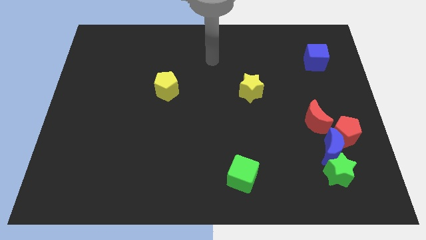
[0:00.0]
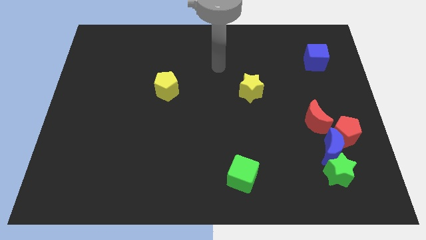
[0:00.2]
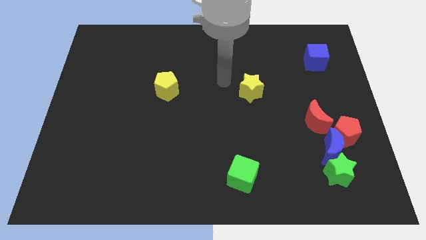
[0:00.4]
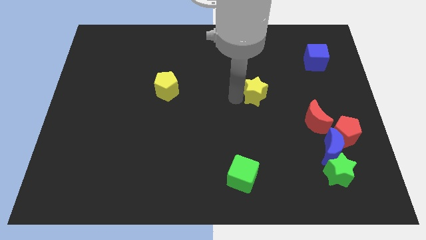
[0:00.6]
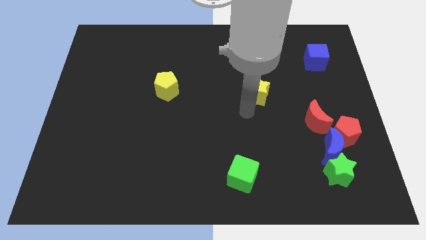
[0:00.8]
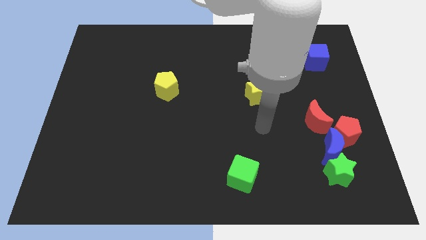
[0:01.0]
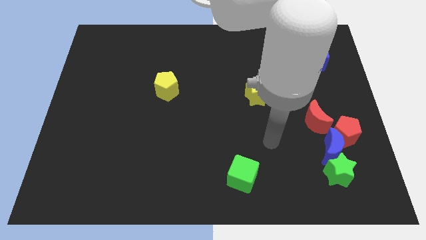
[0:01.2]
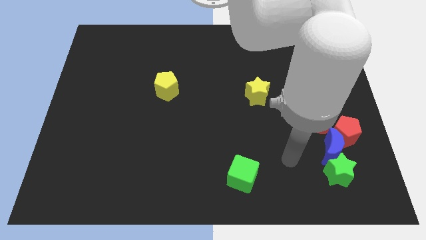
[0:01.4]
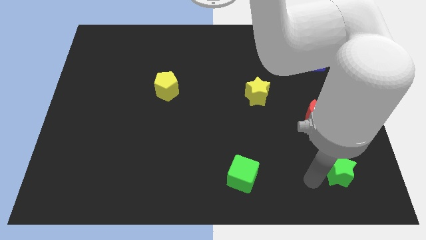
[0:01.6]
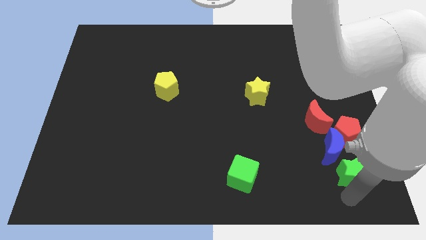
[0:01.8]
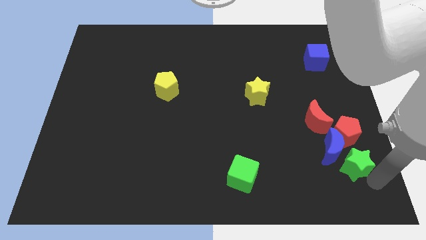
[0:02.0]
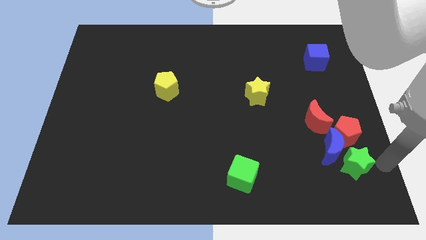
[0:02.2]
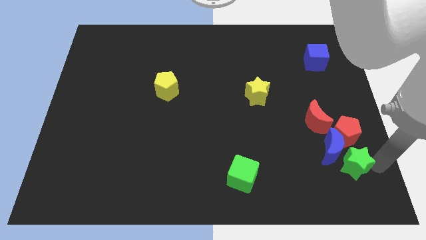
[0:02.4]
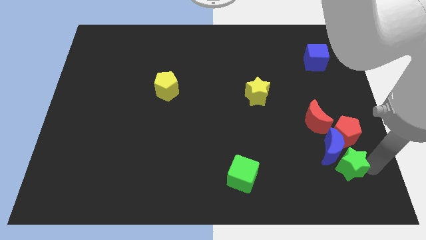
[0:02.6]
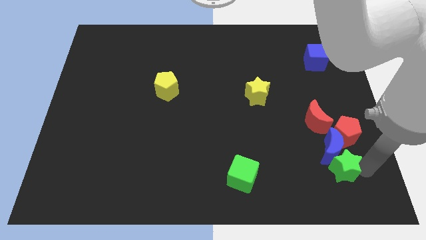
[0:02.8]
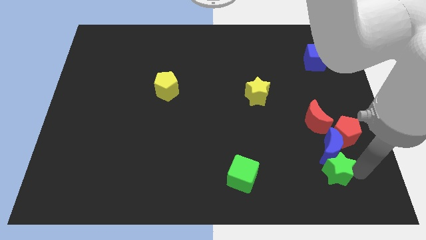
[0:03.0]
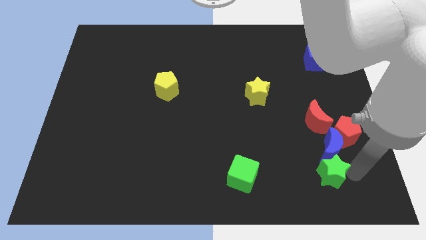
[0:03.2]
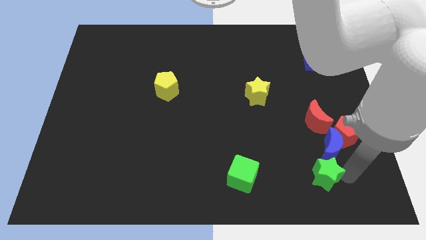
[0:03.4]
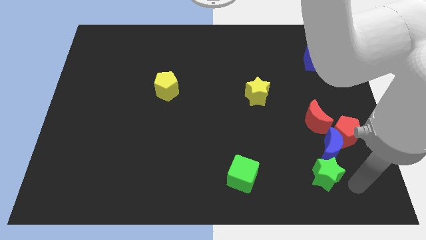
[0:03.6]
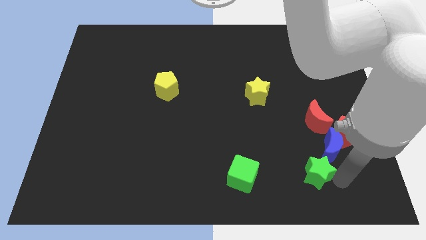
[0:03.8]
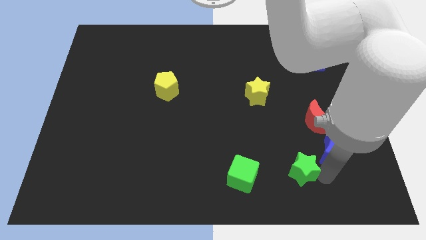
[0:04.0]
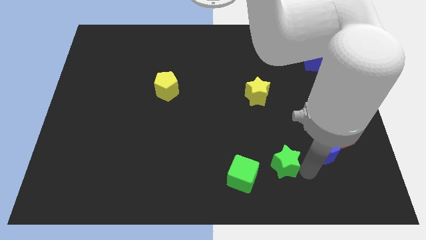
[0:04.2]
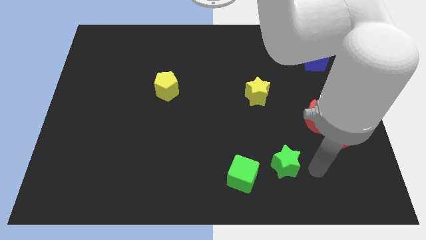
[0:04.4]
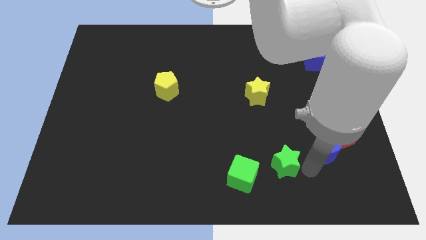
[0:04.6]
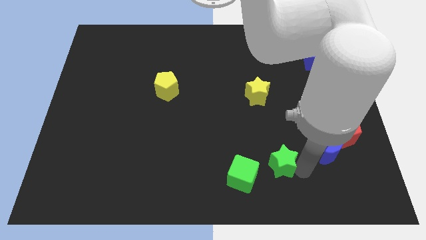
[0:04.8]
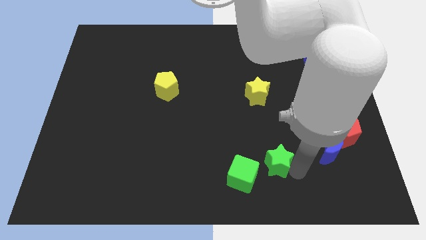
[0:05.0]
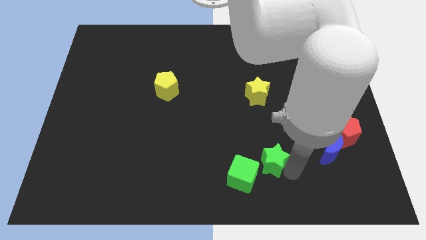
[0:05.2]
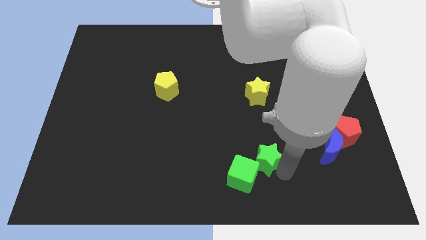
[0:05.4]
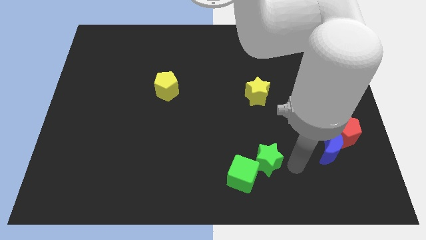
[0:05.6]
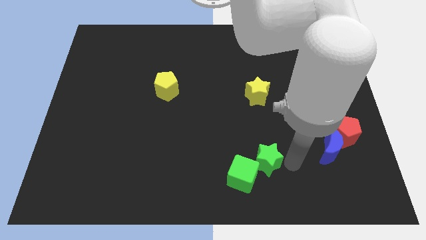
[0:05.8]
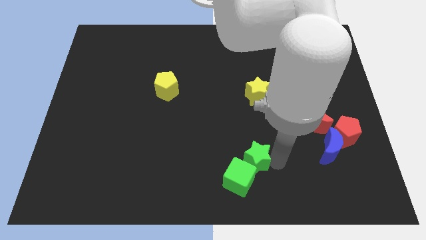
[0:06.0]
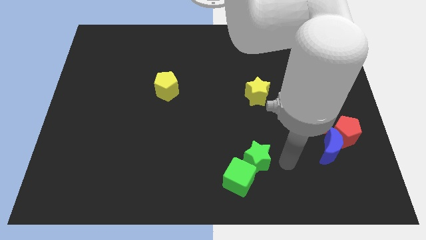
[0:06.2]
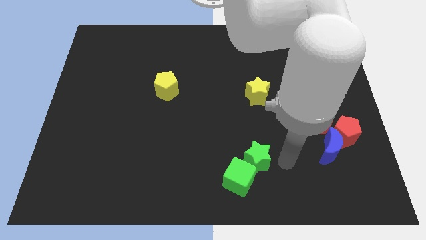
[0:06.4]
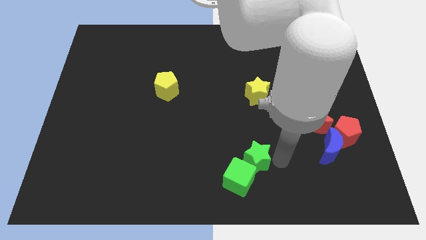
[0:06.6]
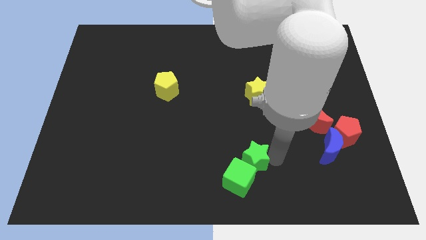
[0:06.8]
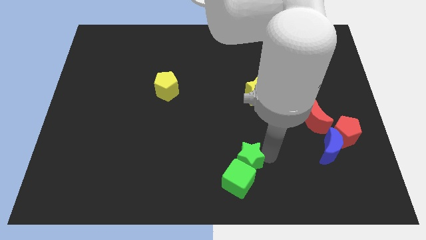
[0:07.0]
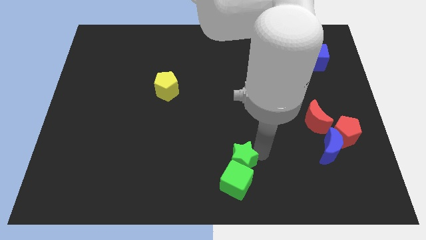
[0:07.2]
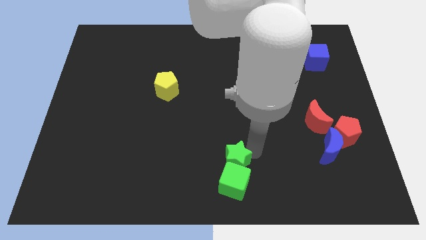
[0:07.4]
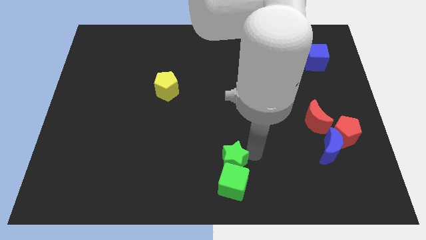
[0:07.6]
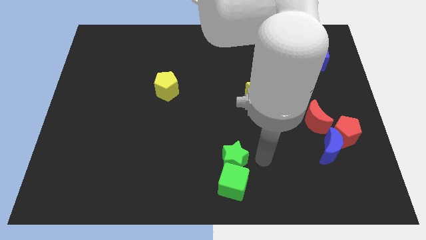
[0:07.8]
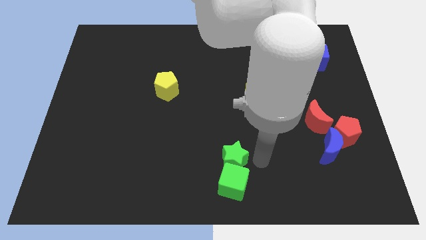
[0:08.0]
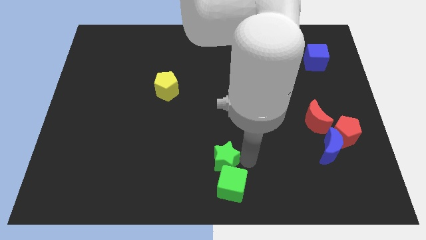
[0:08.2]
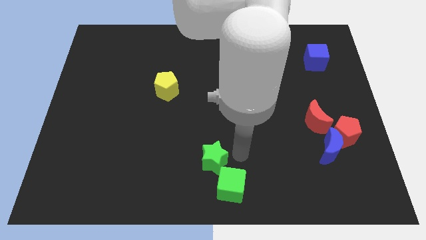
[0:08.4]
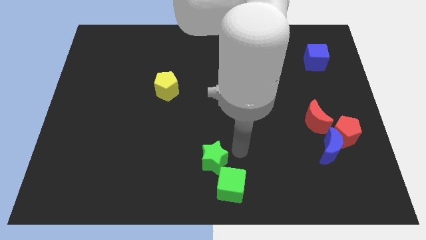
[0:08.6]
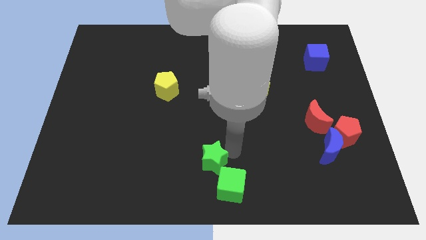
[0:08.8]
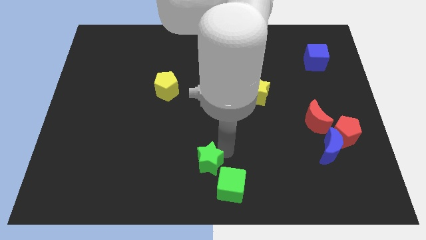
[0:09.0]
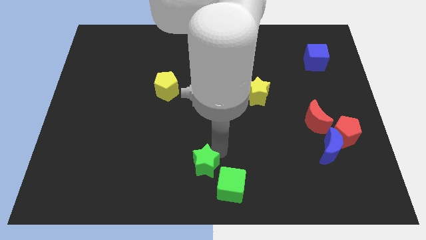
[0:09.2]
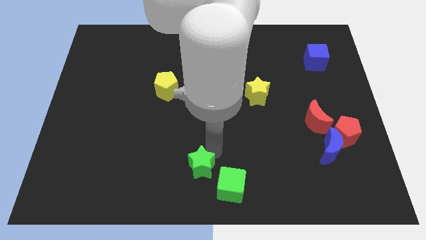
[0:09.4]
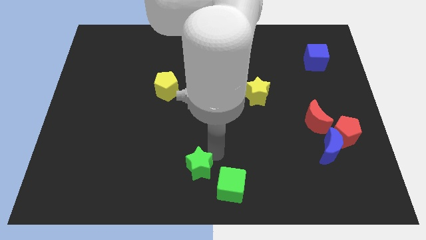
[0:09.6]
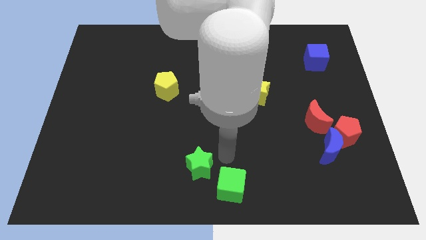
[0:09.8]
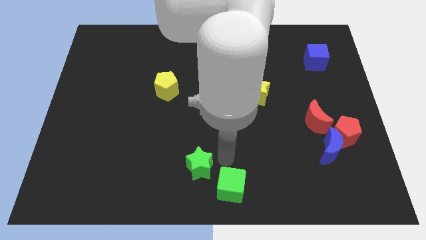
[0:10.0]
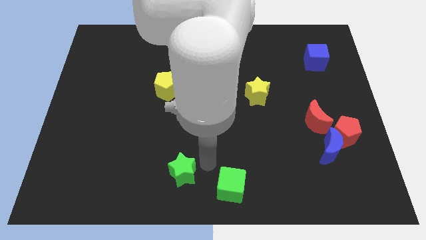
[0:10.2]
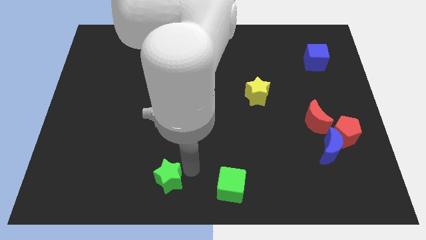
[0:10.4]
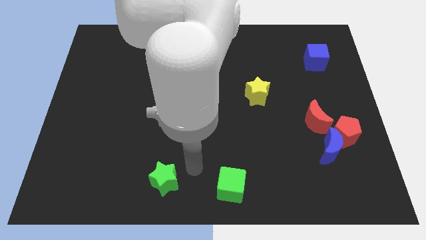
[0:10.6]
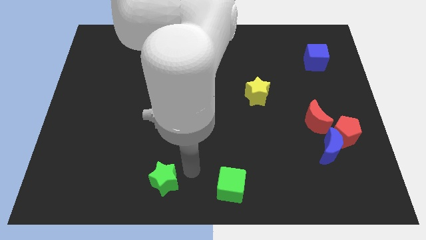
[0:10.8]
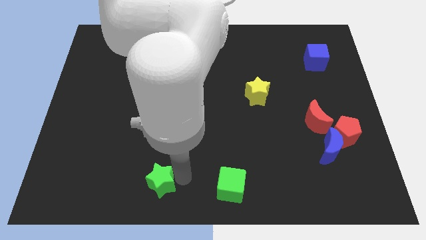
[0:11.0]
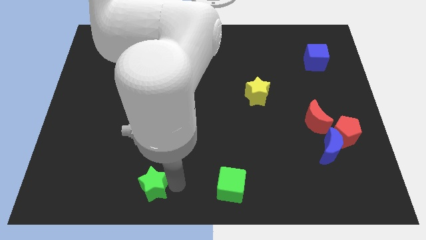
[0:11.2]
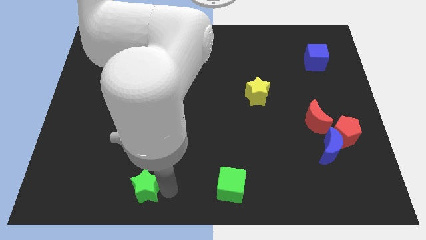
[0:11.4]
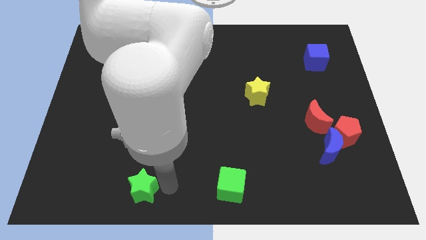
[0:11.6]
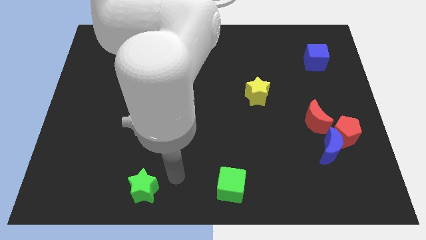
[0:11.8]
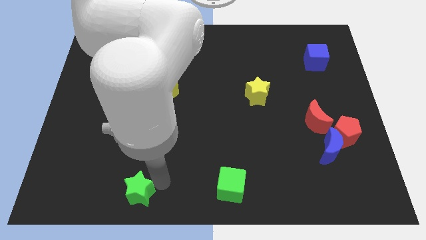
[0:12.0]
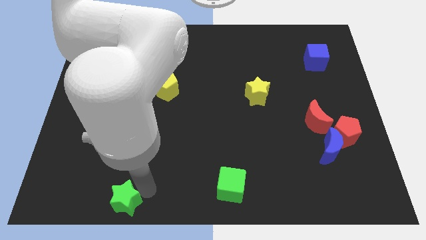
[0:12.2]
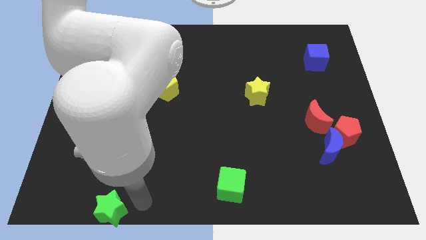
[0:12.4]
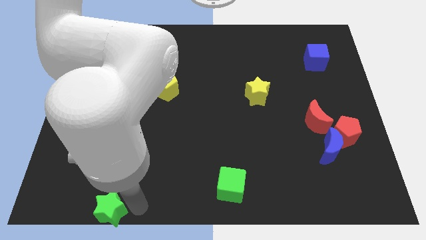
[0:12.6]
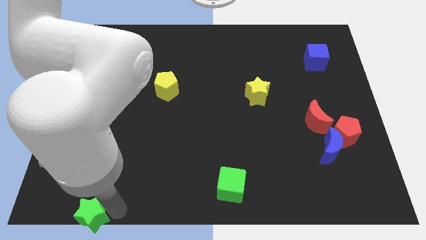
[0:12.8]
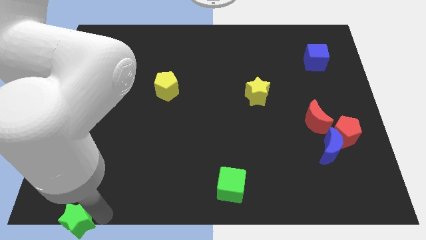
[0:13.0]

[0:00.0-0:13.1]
push the green star to the bottom left of the board
